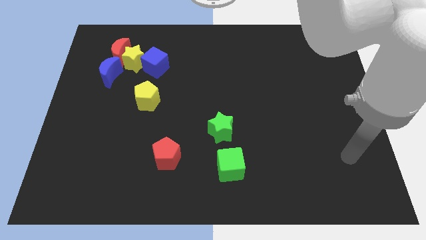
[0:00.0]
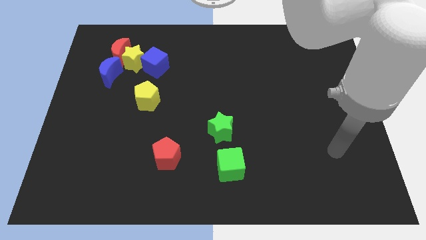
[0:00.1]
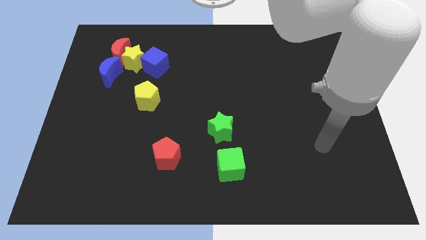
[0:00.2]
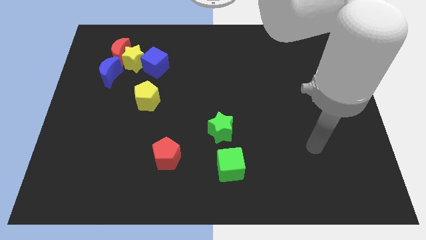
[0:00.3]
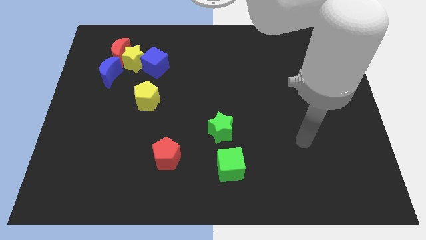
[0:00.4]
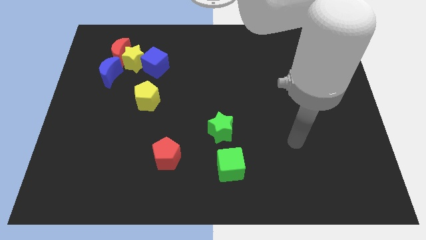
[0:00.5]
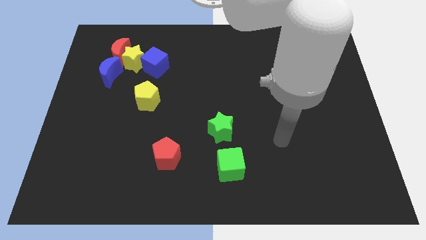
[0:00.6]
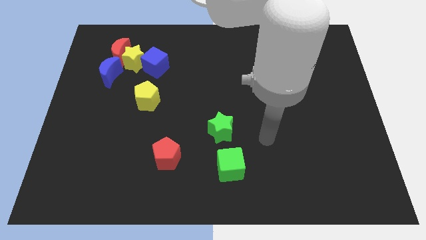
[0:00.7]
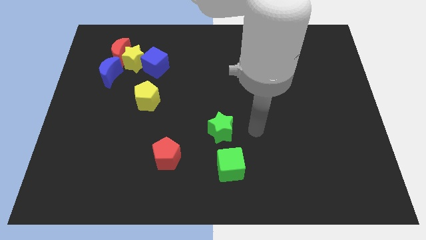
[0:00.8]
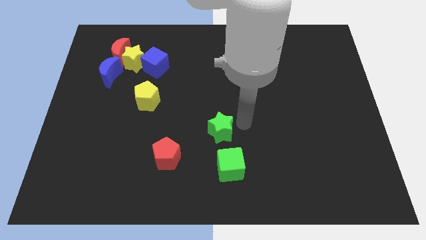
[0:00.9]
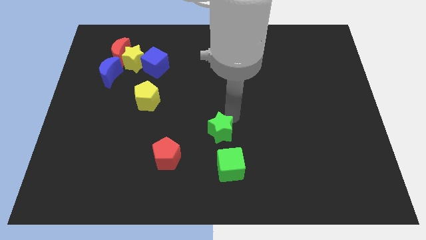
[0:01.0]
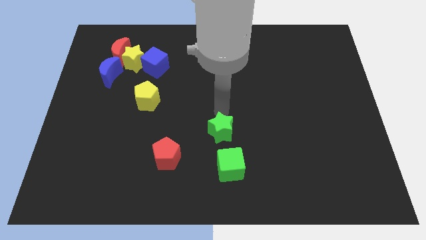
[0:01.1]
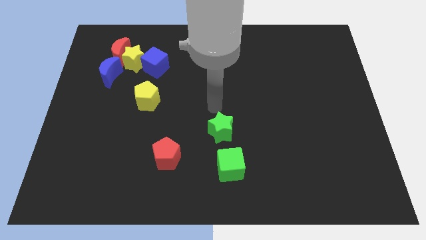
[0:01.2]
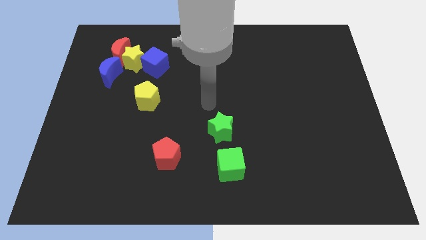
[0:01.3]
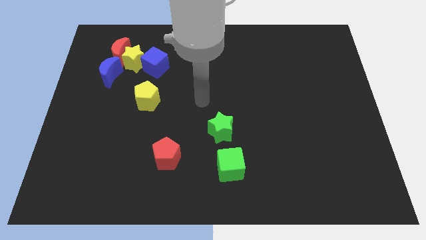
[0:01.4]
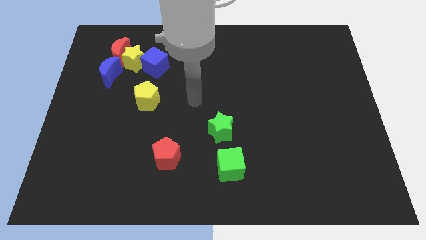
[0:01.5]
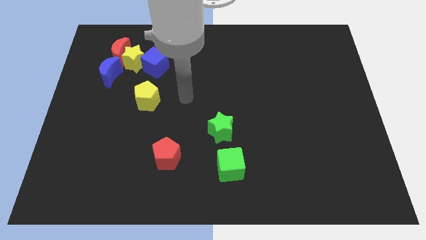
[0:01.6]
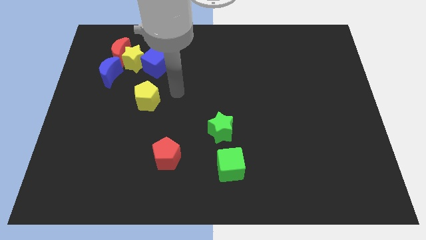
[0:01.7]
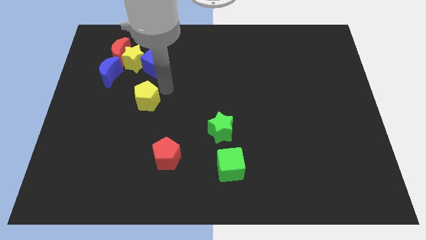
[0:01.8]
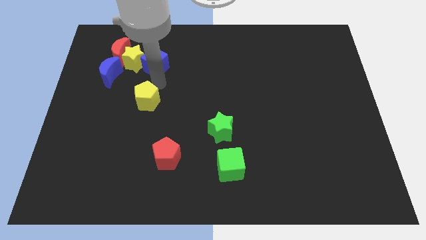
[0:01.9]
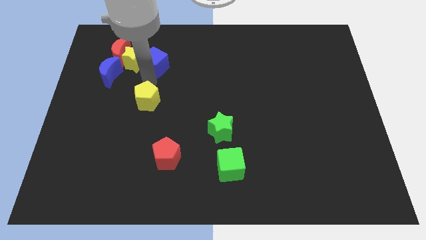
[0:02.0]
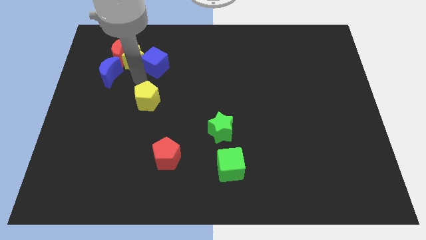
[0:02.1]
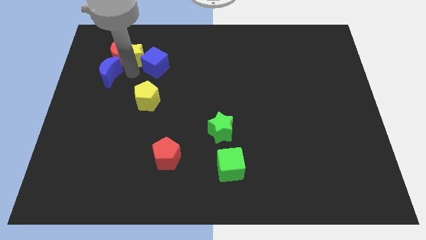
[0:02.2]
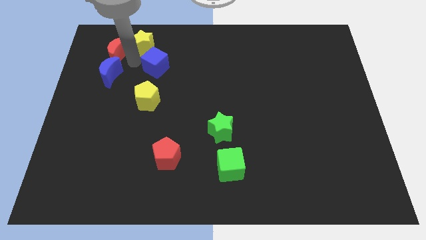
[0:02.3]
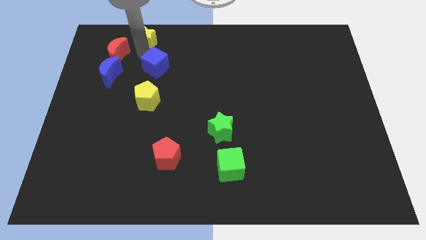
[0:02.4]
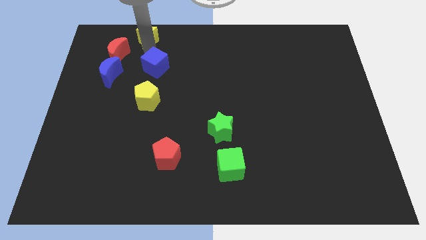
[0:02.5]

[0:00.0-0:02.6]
separate the blue cube from the yellow star

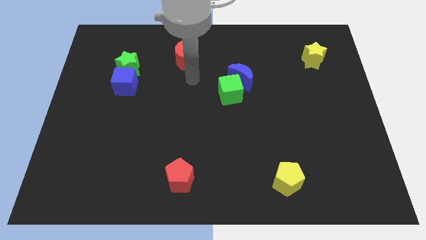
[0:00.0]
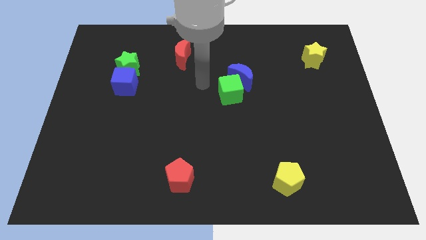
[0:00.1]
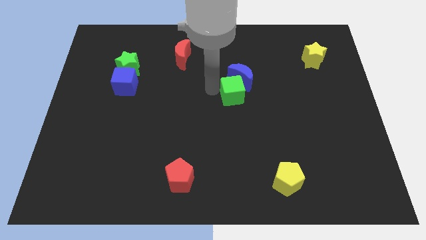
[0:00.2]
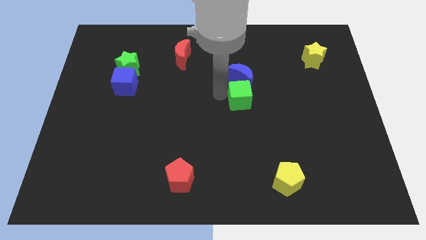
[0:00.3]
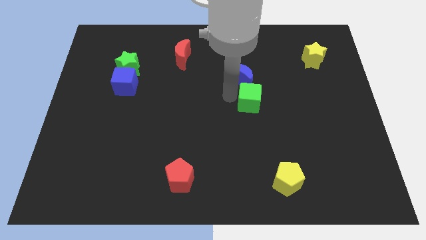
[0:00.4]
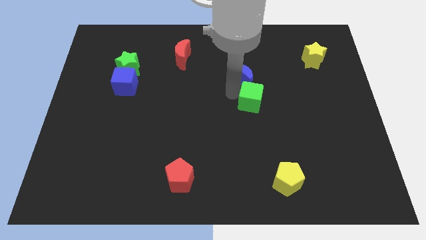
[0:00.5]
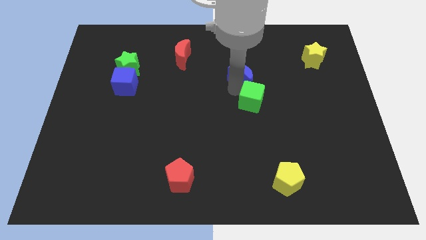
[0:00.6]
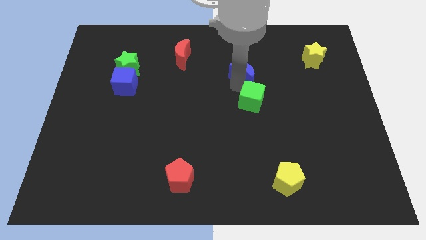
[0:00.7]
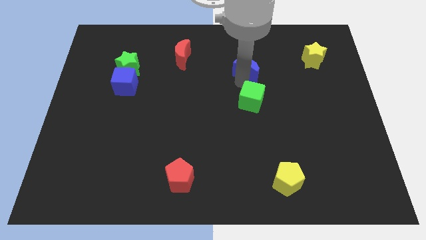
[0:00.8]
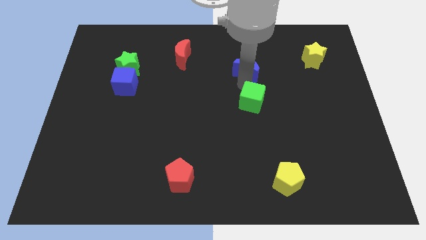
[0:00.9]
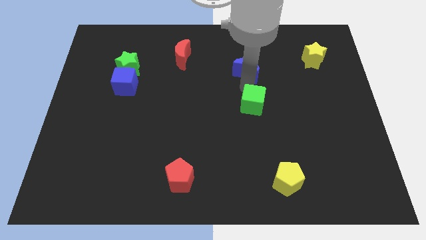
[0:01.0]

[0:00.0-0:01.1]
separate the blue moon from the green cube

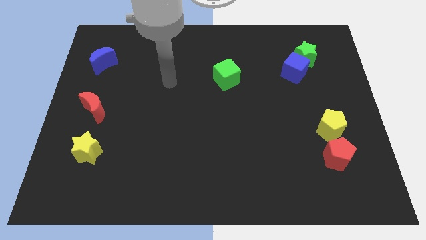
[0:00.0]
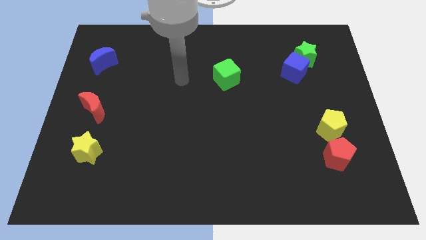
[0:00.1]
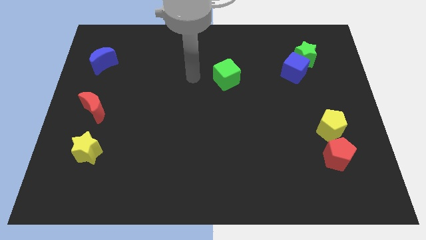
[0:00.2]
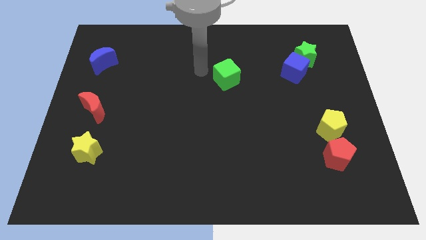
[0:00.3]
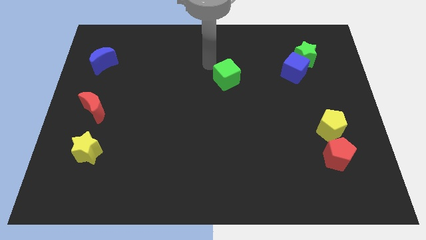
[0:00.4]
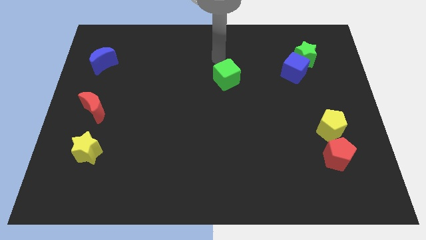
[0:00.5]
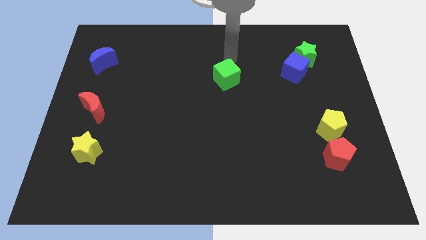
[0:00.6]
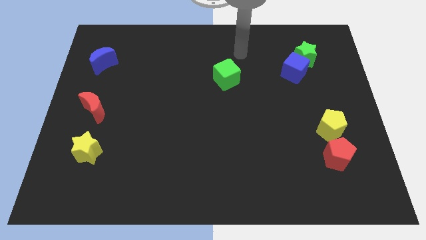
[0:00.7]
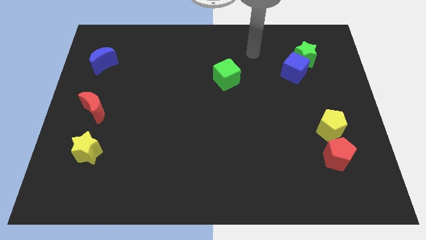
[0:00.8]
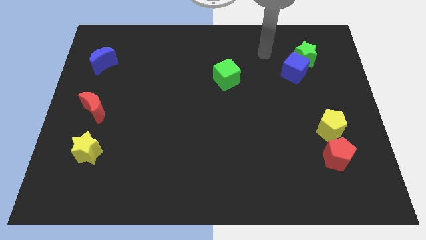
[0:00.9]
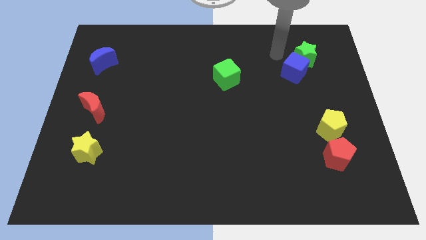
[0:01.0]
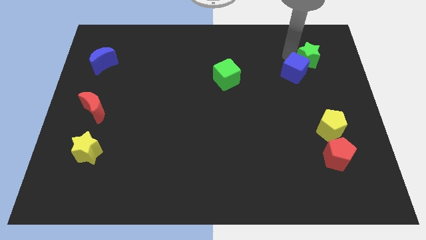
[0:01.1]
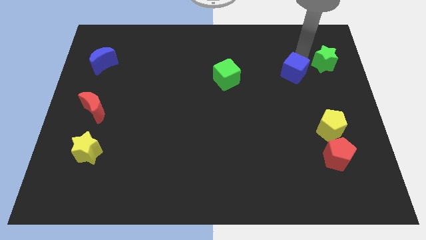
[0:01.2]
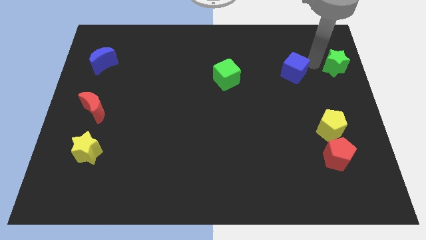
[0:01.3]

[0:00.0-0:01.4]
separate the blue cube from the green star

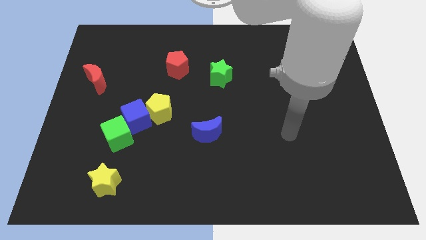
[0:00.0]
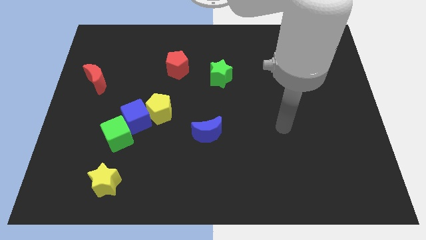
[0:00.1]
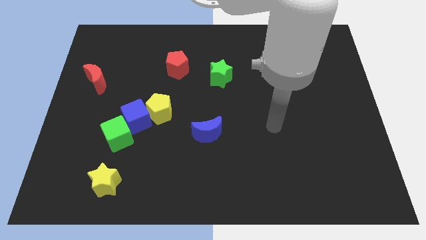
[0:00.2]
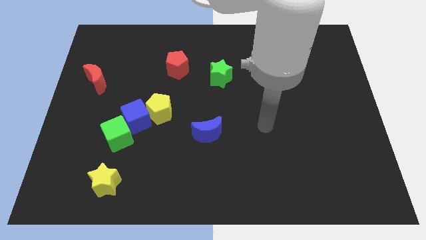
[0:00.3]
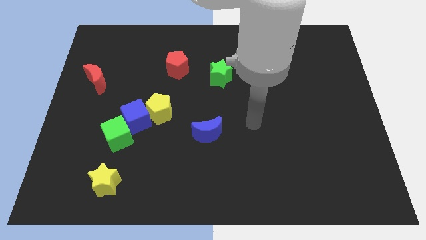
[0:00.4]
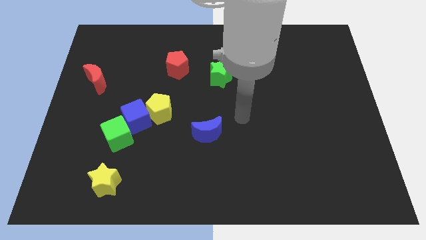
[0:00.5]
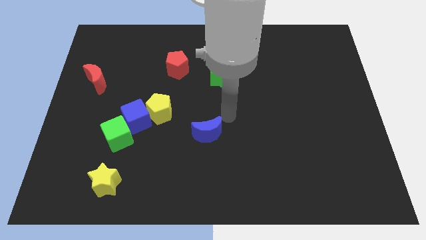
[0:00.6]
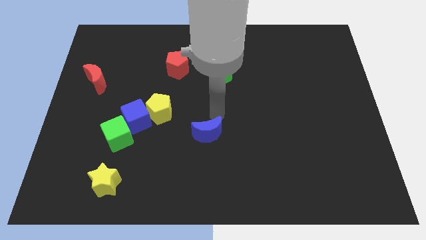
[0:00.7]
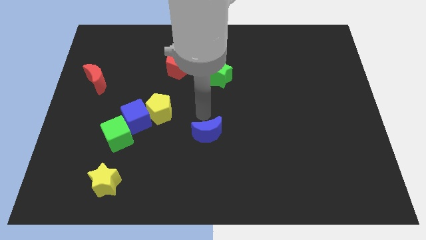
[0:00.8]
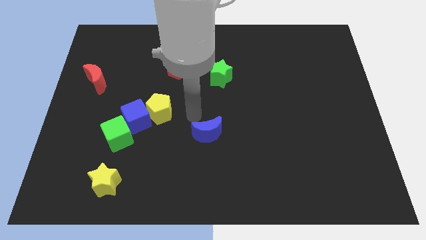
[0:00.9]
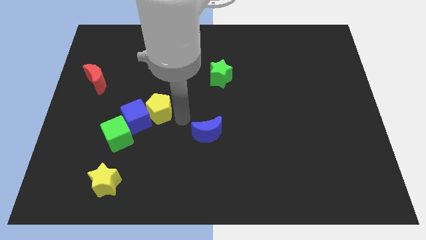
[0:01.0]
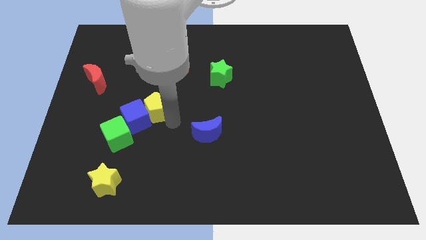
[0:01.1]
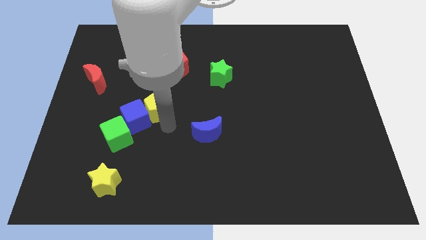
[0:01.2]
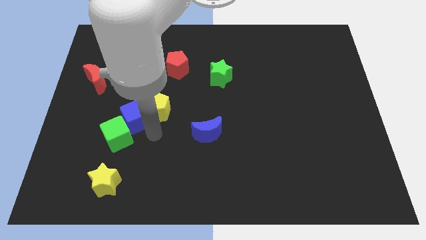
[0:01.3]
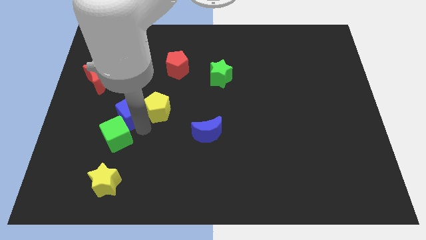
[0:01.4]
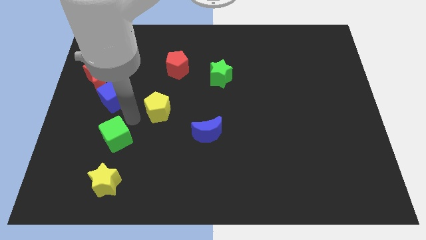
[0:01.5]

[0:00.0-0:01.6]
separate the yellow pentagon from the blue cube

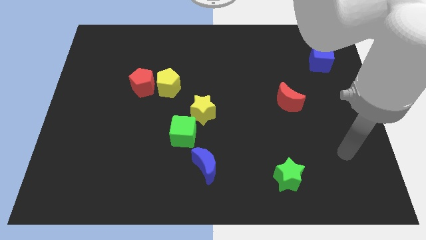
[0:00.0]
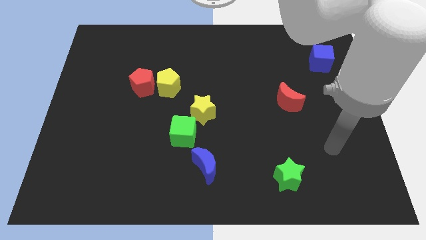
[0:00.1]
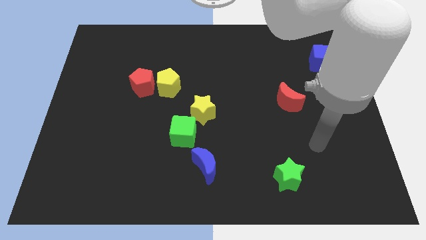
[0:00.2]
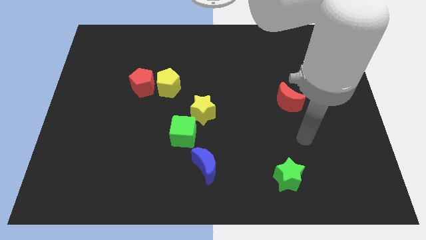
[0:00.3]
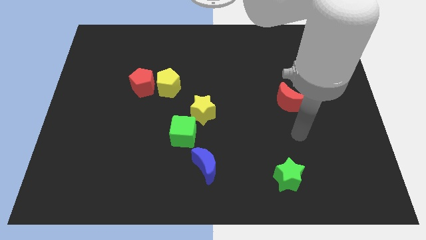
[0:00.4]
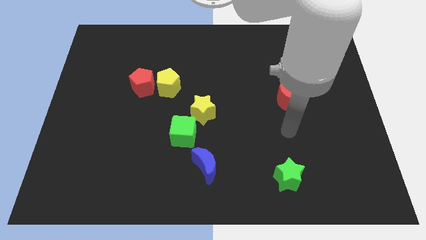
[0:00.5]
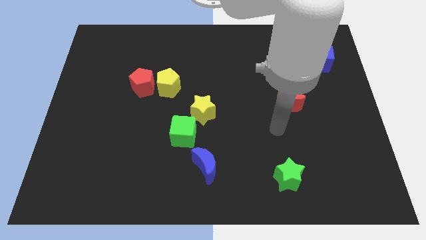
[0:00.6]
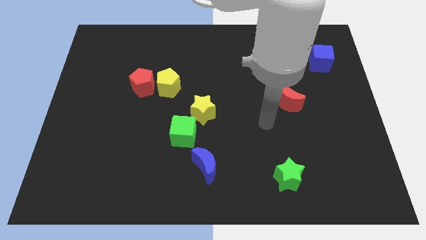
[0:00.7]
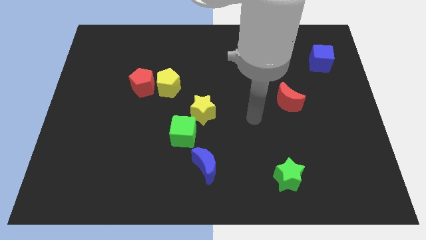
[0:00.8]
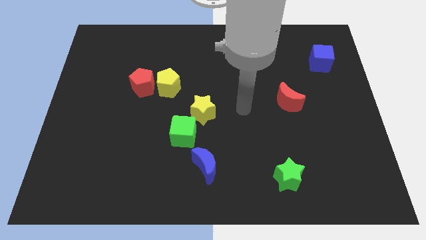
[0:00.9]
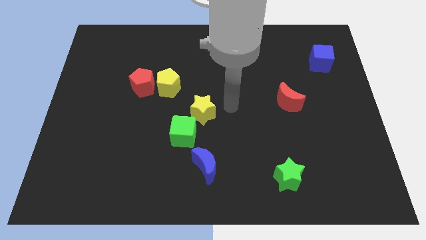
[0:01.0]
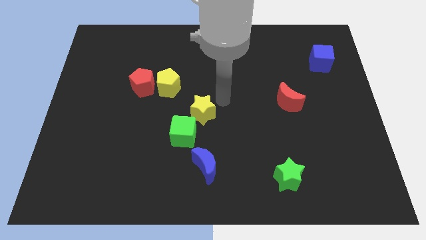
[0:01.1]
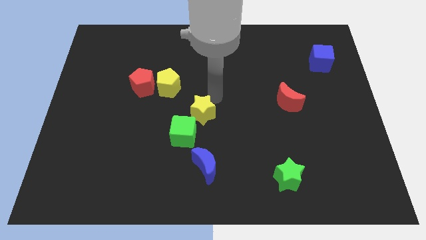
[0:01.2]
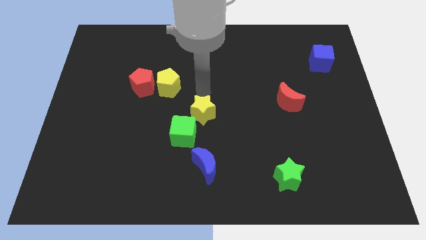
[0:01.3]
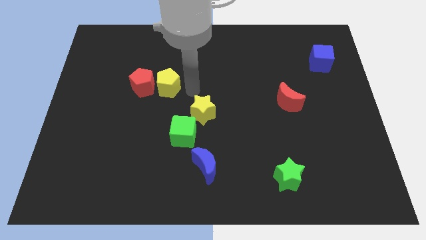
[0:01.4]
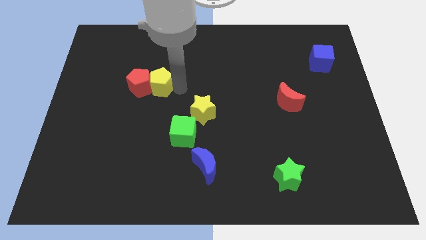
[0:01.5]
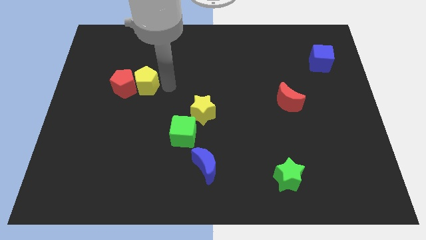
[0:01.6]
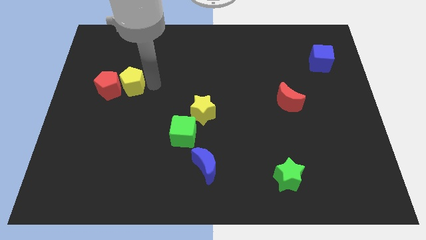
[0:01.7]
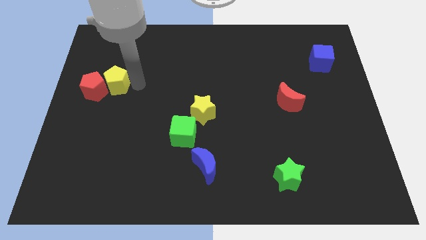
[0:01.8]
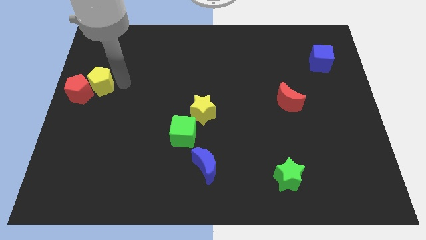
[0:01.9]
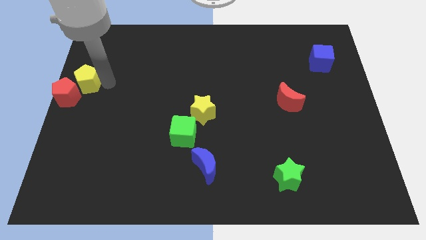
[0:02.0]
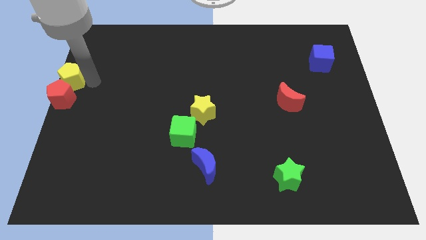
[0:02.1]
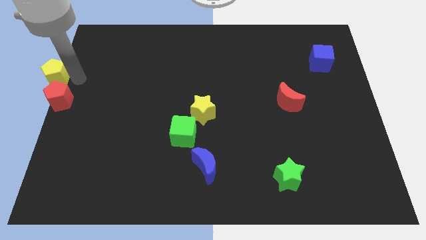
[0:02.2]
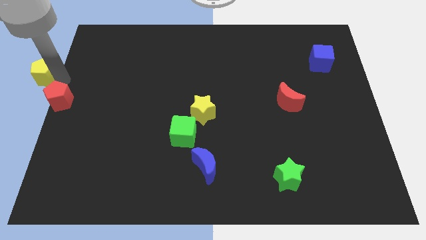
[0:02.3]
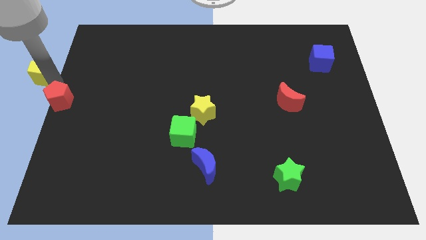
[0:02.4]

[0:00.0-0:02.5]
pull the red pentagon apart from the yellow pentagon

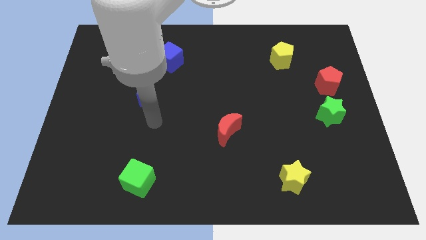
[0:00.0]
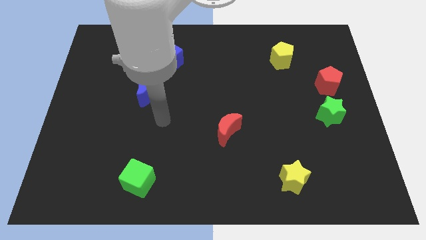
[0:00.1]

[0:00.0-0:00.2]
separate the red pentagon from the green star
